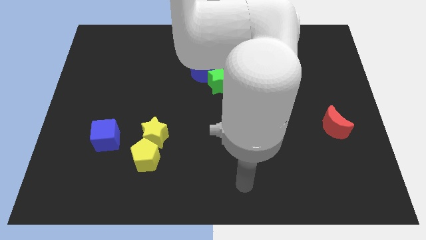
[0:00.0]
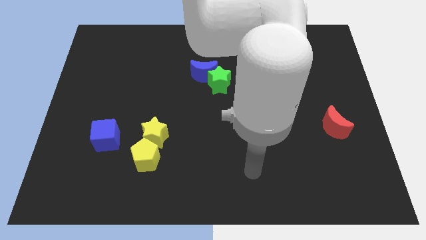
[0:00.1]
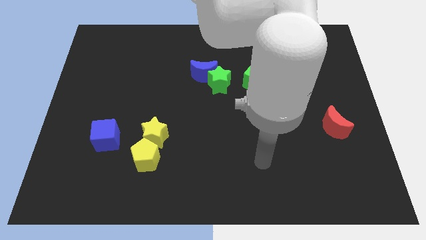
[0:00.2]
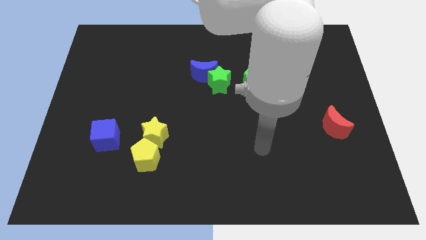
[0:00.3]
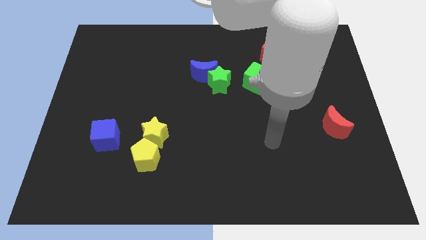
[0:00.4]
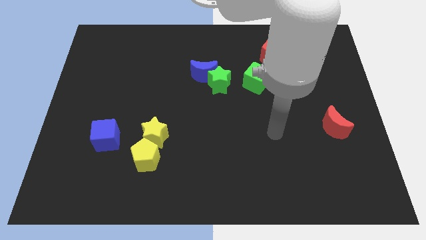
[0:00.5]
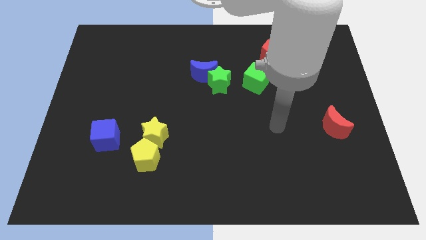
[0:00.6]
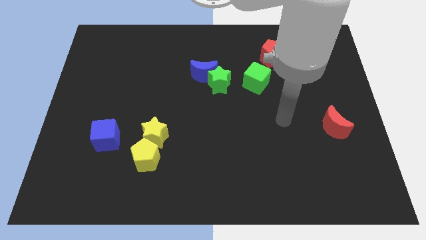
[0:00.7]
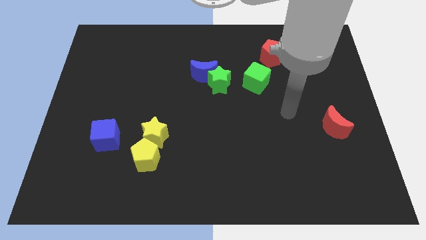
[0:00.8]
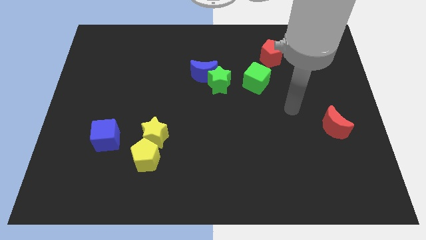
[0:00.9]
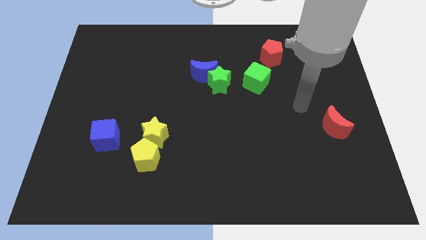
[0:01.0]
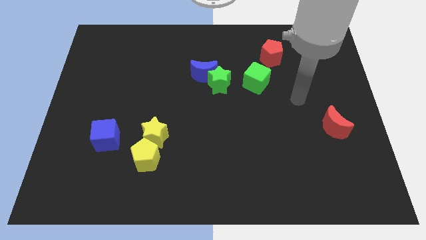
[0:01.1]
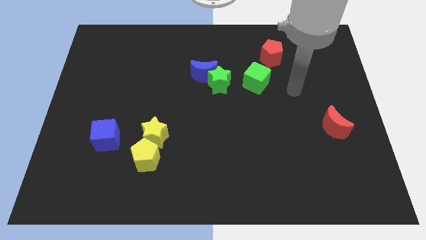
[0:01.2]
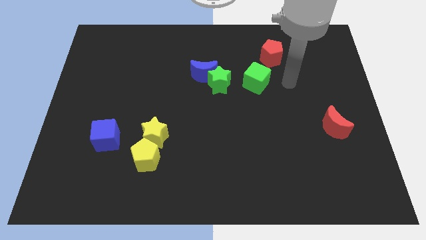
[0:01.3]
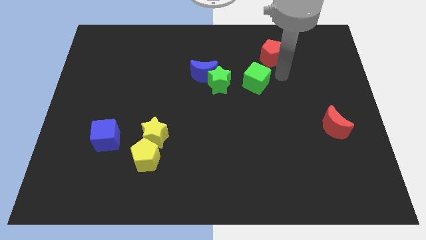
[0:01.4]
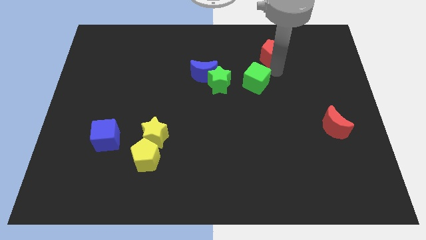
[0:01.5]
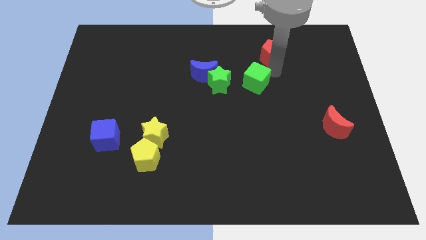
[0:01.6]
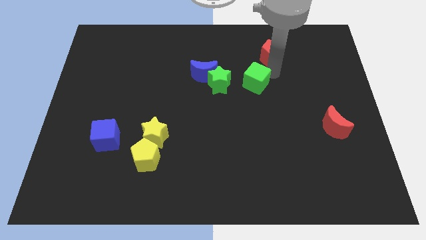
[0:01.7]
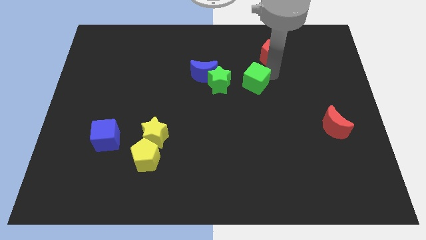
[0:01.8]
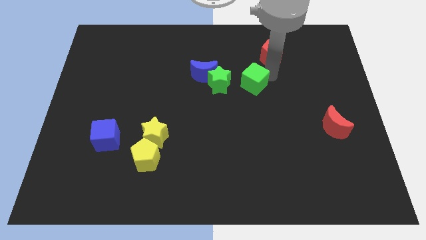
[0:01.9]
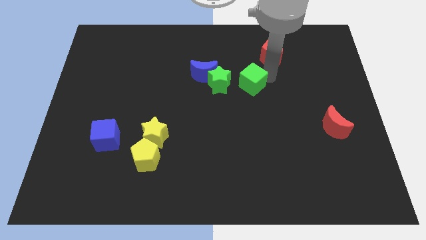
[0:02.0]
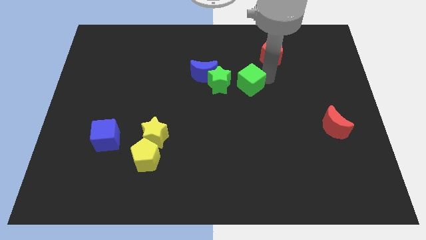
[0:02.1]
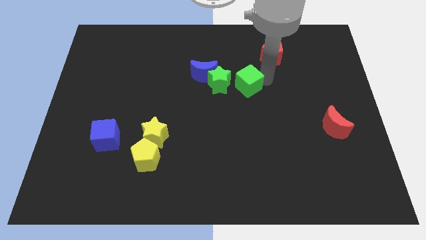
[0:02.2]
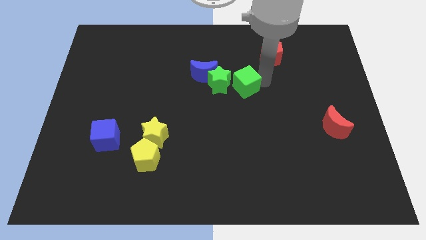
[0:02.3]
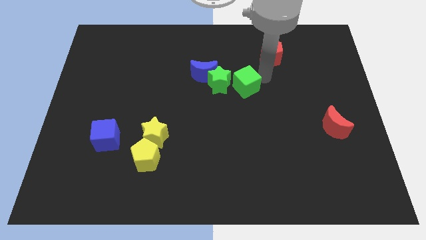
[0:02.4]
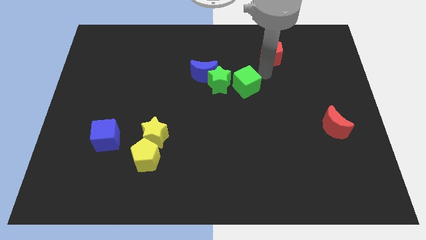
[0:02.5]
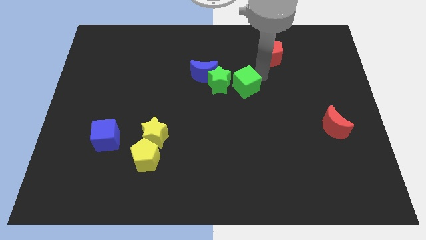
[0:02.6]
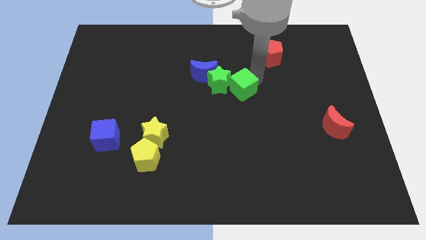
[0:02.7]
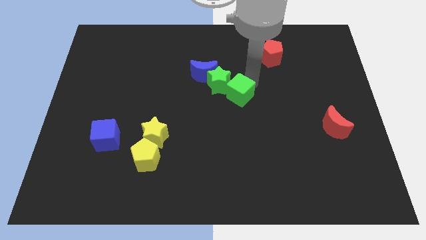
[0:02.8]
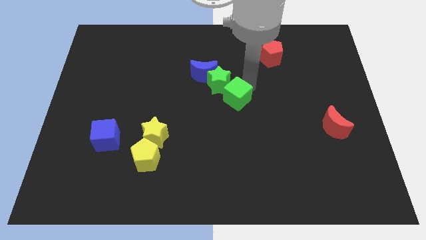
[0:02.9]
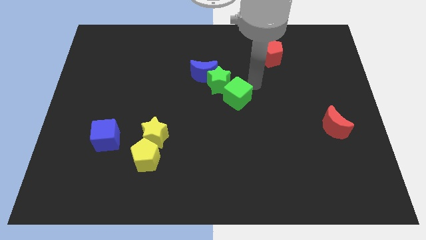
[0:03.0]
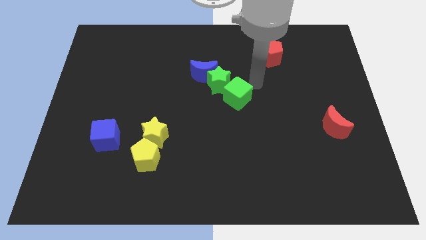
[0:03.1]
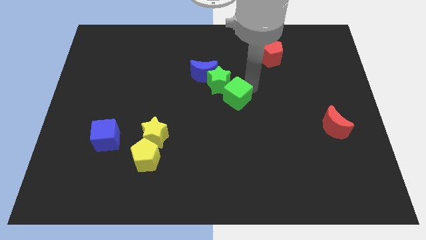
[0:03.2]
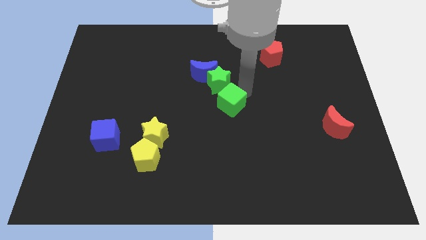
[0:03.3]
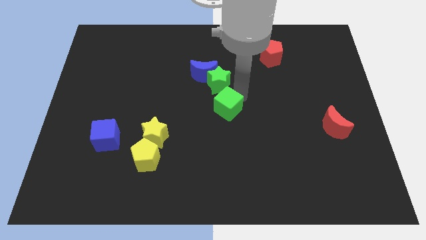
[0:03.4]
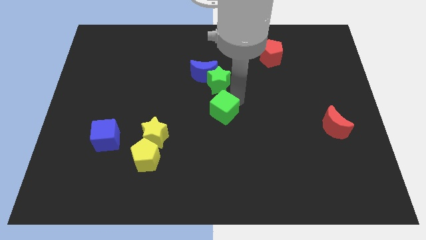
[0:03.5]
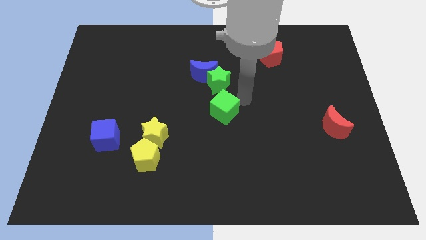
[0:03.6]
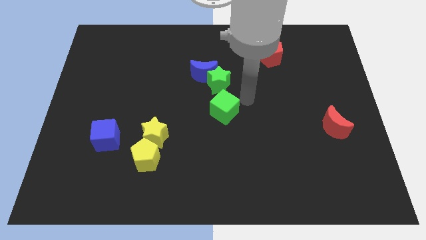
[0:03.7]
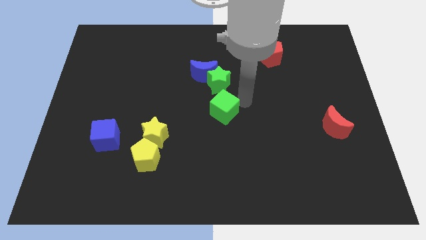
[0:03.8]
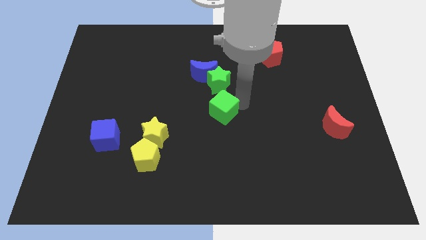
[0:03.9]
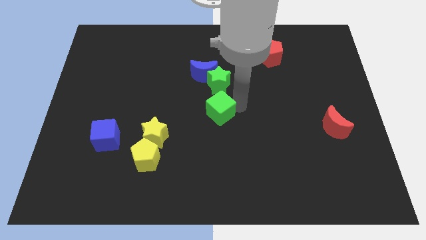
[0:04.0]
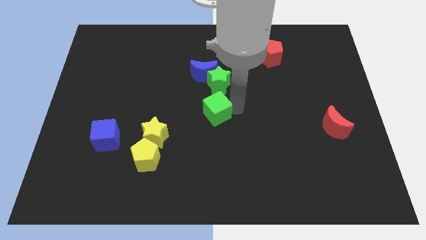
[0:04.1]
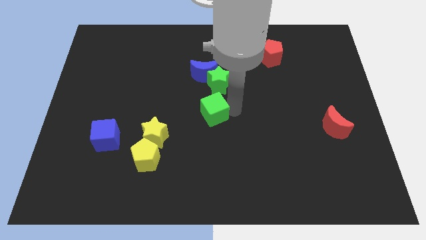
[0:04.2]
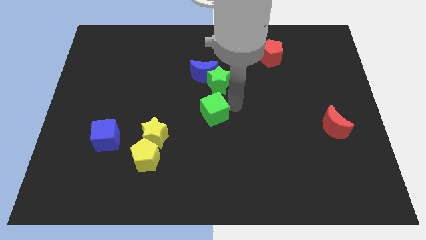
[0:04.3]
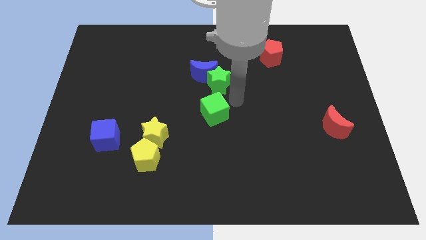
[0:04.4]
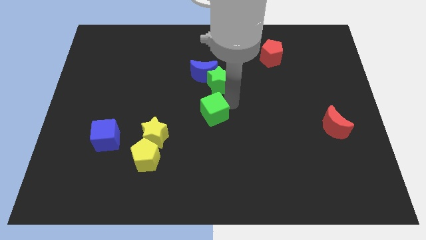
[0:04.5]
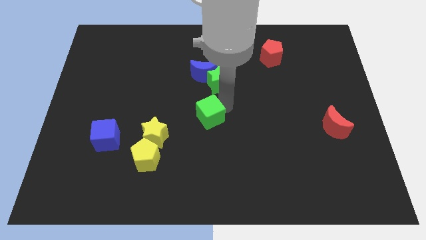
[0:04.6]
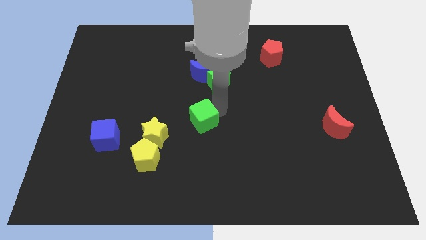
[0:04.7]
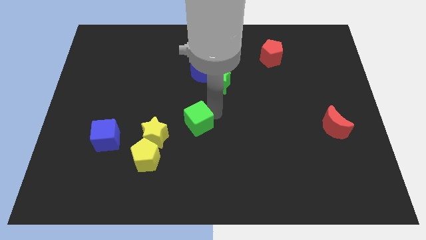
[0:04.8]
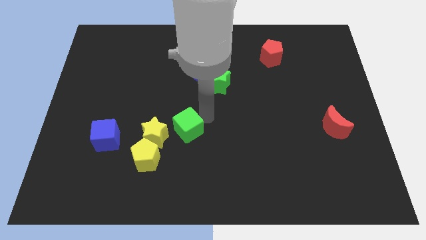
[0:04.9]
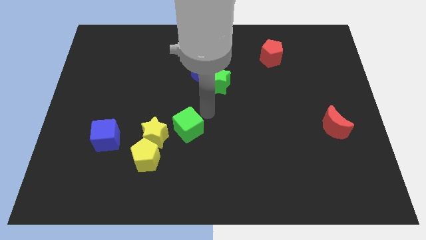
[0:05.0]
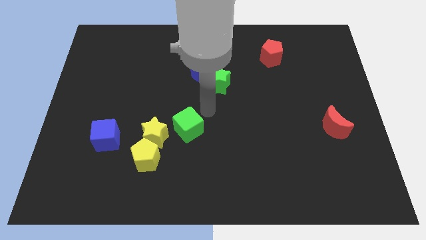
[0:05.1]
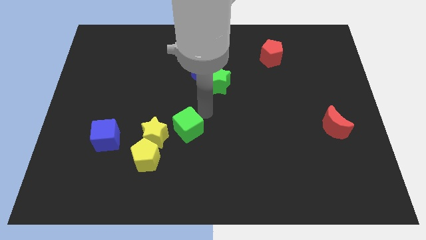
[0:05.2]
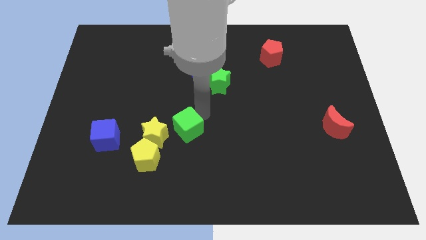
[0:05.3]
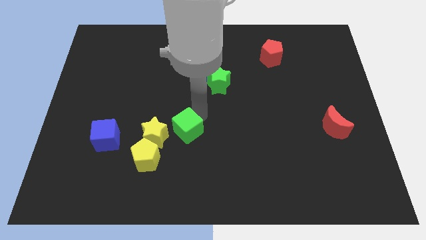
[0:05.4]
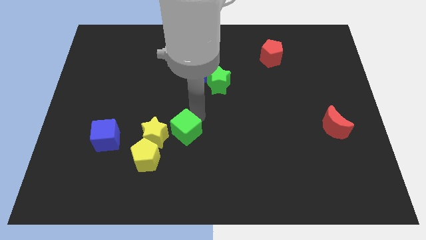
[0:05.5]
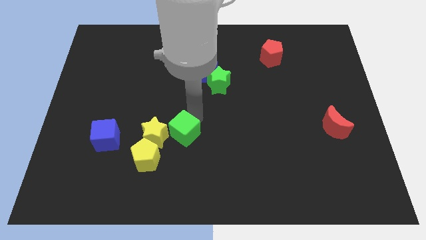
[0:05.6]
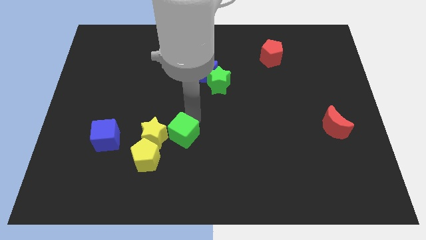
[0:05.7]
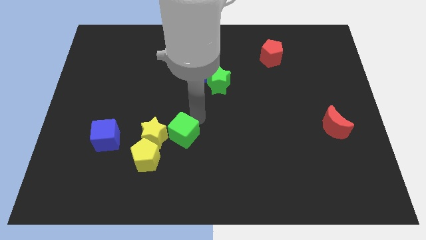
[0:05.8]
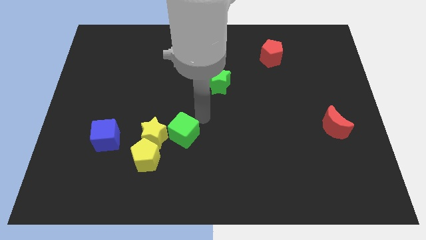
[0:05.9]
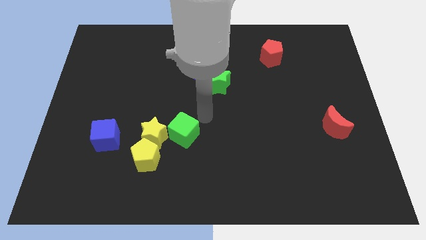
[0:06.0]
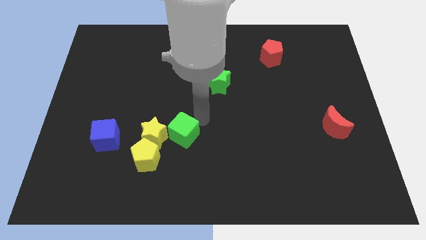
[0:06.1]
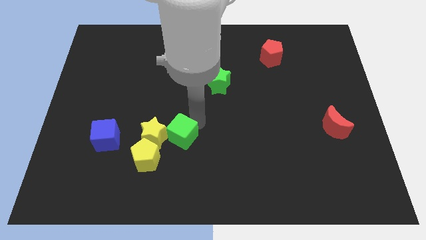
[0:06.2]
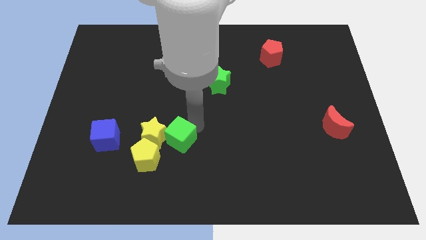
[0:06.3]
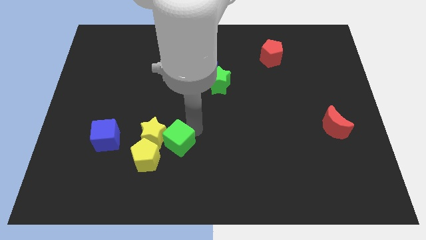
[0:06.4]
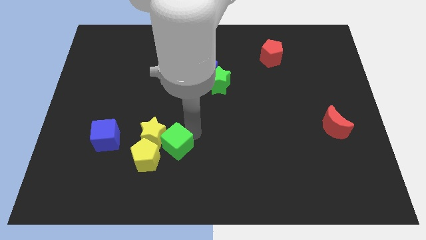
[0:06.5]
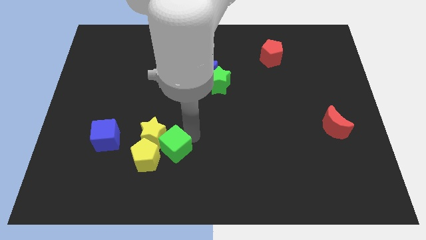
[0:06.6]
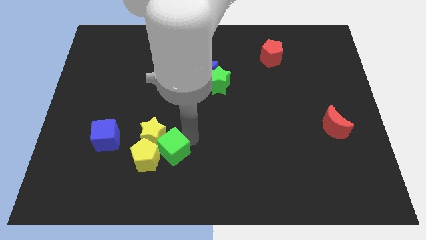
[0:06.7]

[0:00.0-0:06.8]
push the green cube next to the yellow pentagon

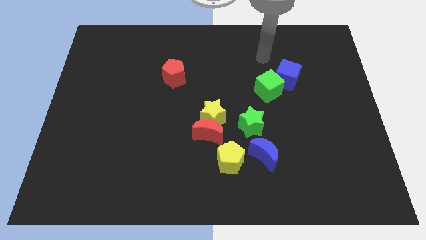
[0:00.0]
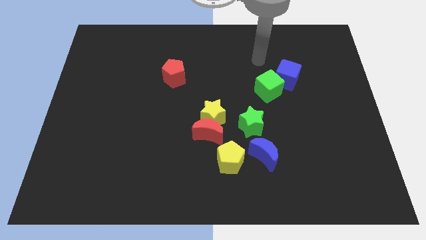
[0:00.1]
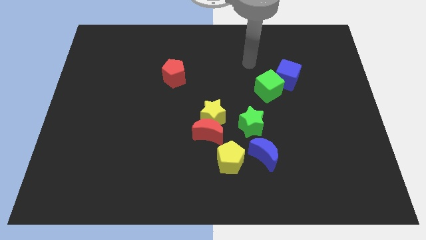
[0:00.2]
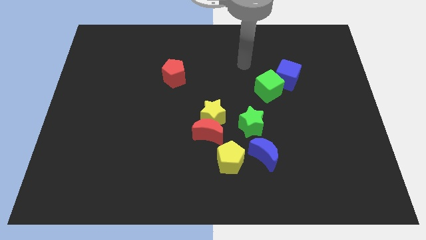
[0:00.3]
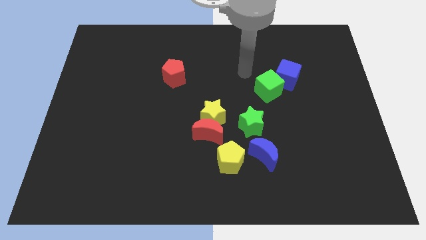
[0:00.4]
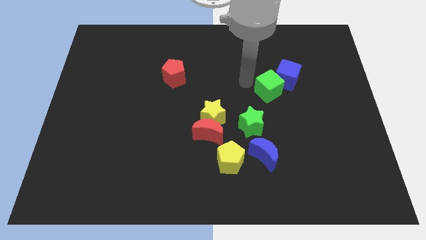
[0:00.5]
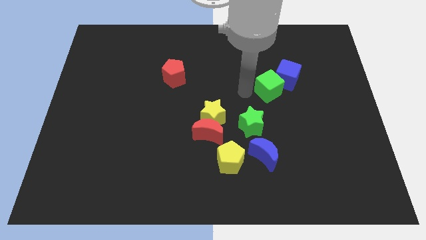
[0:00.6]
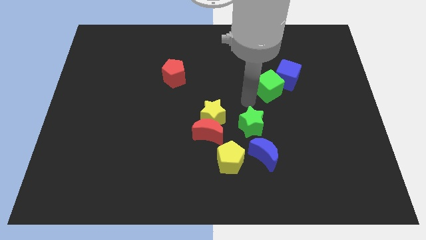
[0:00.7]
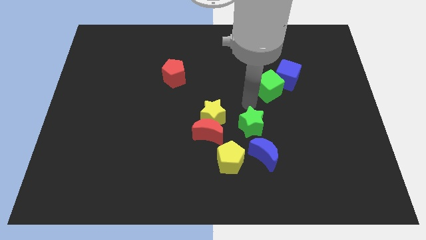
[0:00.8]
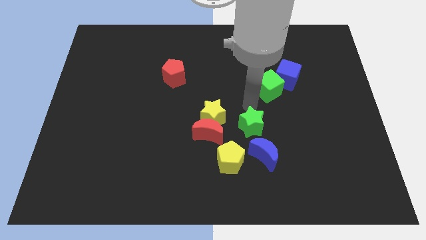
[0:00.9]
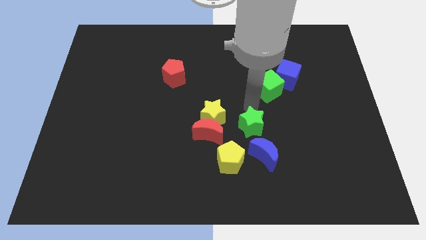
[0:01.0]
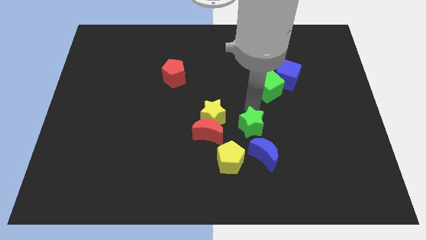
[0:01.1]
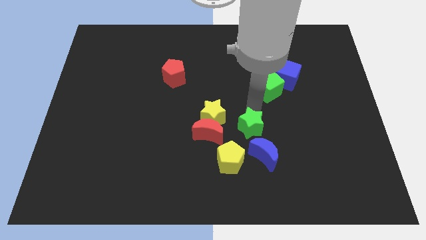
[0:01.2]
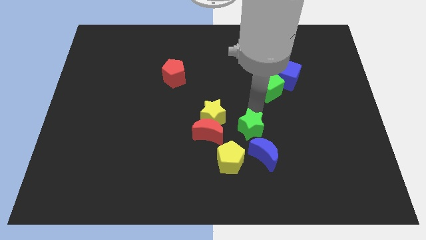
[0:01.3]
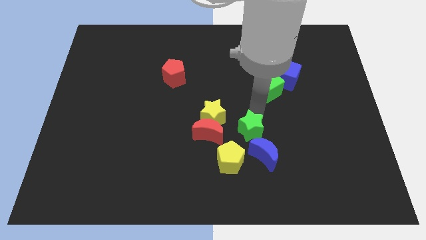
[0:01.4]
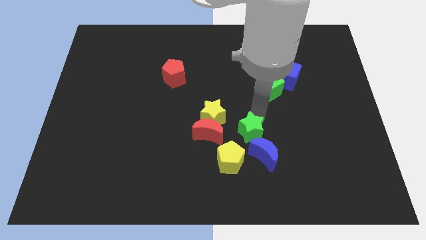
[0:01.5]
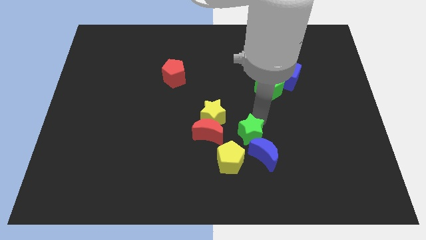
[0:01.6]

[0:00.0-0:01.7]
put the green star to the blue moon
